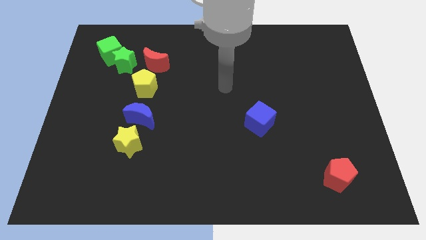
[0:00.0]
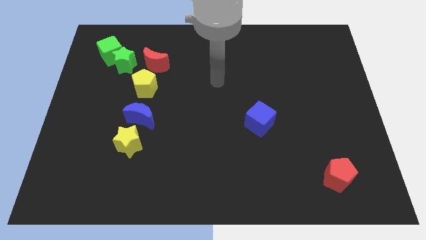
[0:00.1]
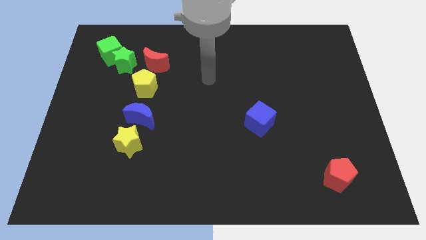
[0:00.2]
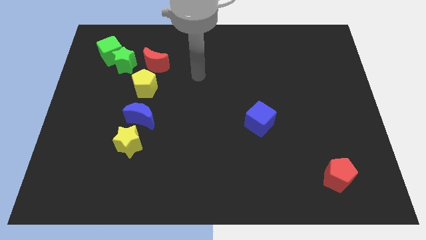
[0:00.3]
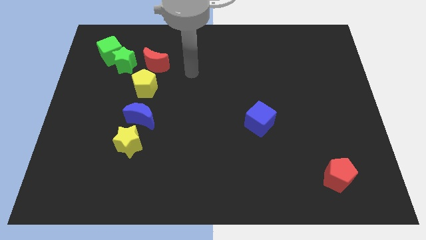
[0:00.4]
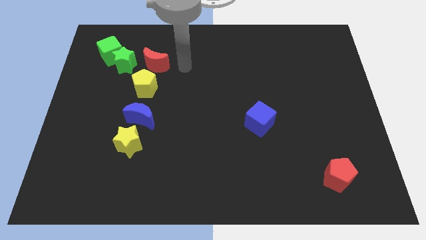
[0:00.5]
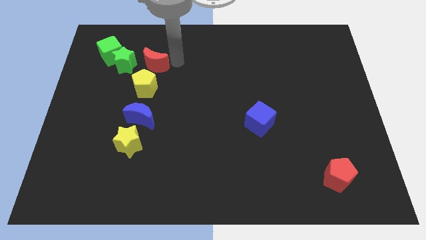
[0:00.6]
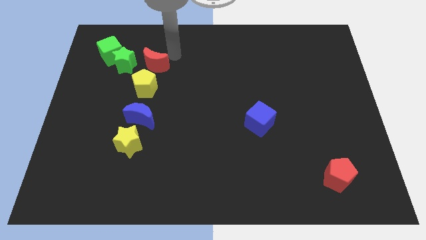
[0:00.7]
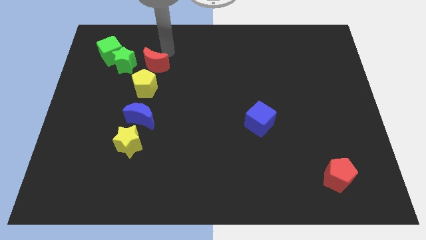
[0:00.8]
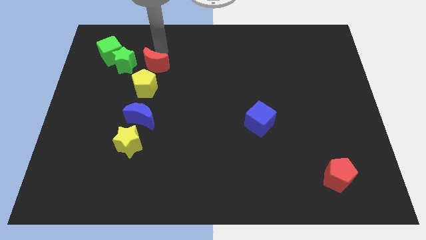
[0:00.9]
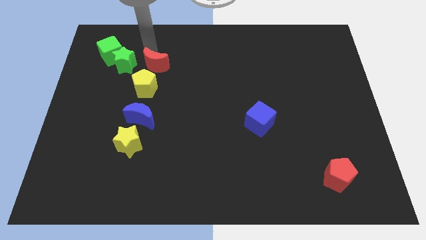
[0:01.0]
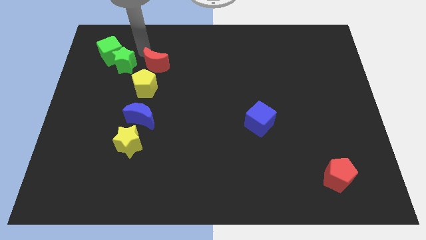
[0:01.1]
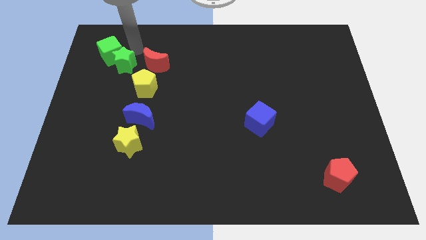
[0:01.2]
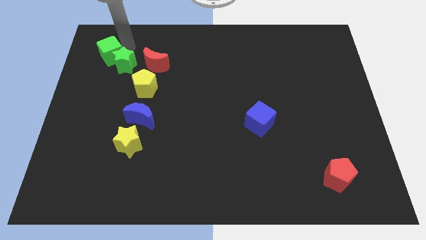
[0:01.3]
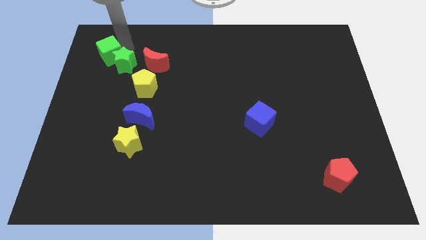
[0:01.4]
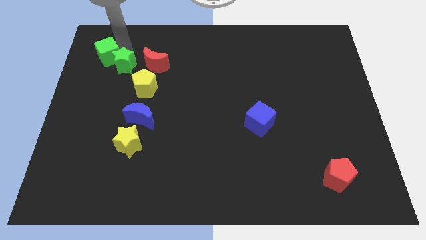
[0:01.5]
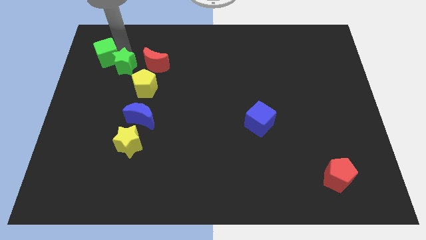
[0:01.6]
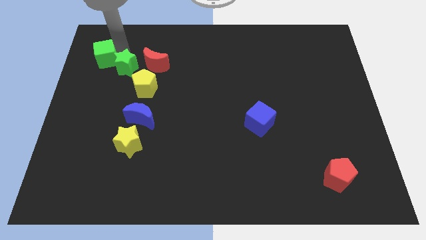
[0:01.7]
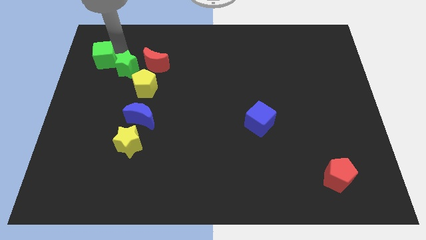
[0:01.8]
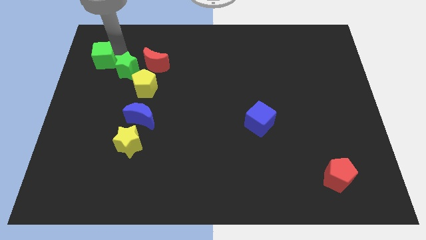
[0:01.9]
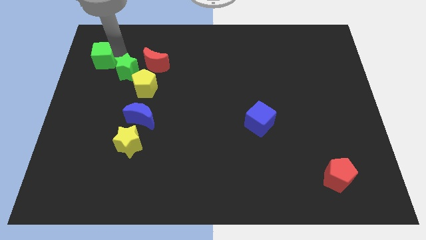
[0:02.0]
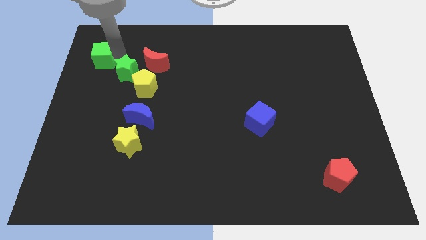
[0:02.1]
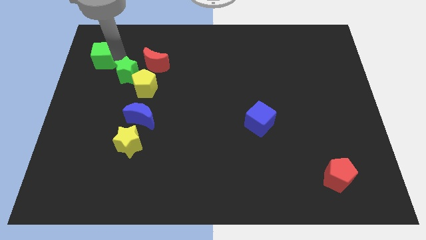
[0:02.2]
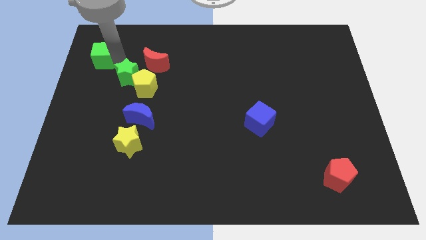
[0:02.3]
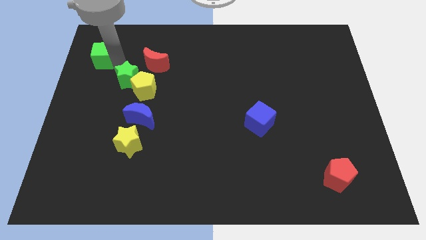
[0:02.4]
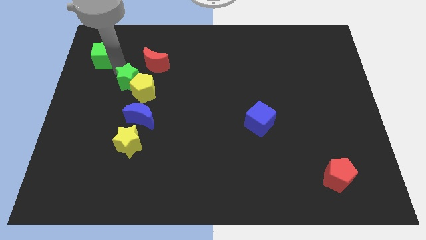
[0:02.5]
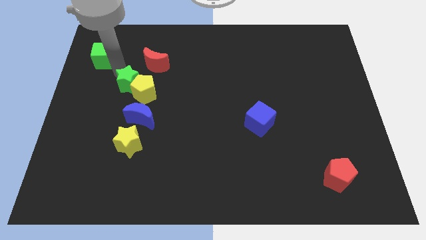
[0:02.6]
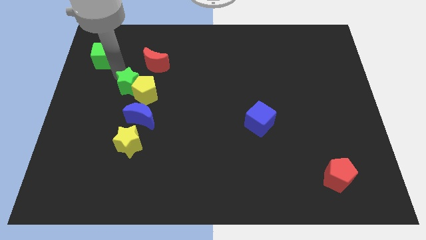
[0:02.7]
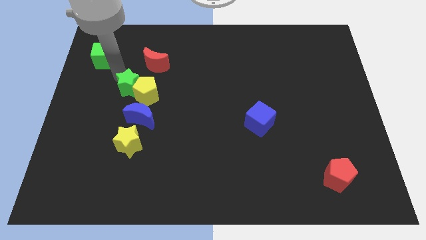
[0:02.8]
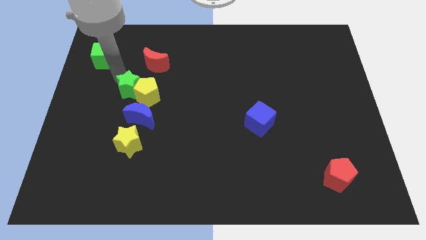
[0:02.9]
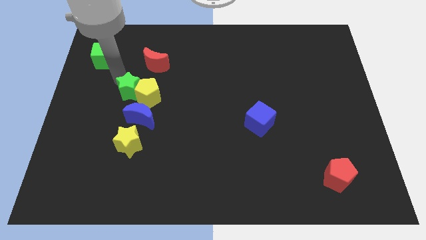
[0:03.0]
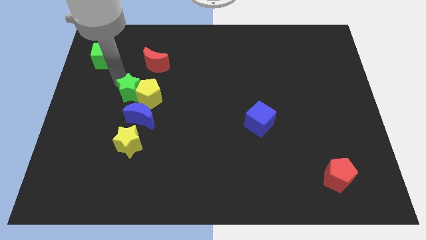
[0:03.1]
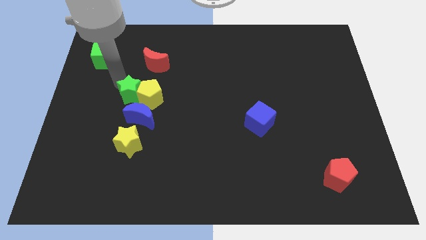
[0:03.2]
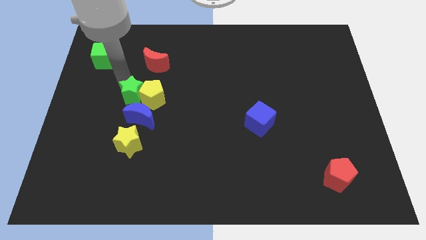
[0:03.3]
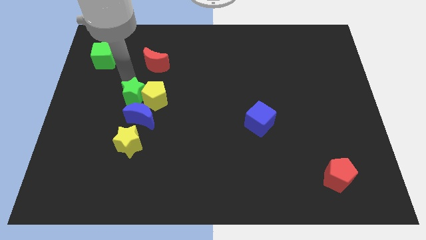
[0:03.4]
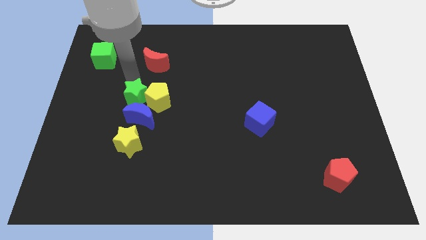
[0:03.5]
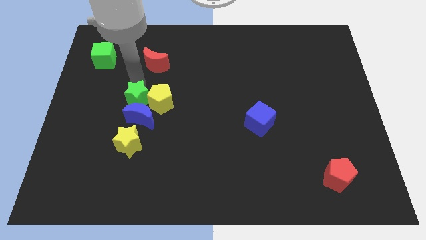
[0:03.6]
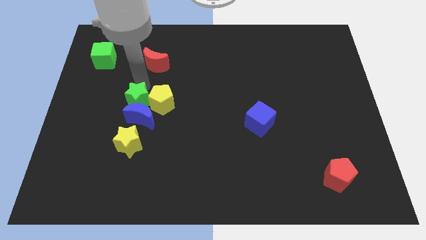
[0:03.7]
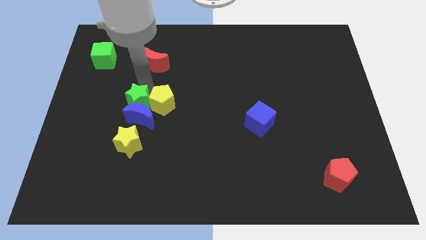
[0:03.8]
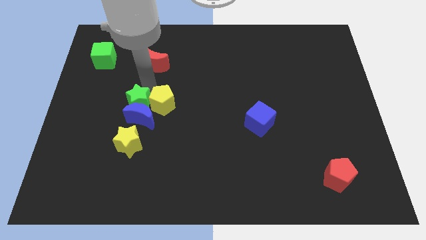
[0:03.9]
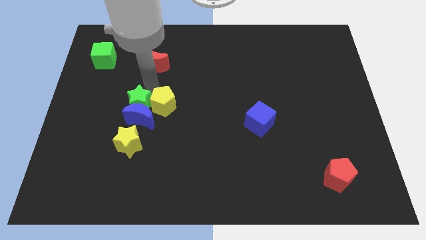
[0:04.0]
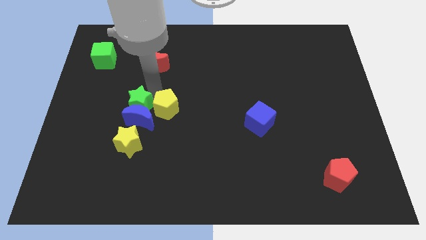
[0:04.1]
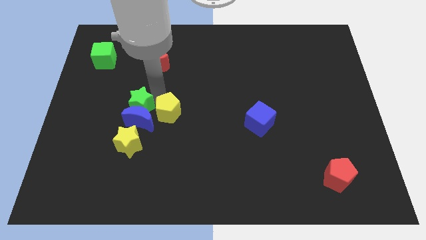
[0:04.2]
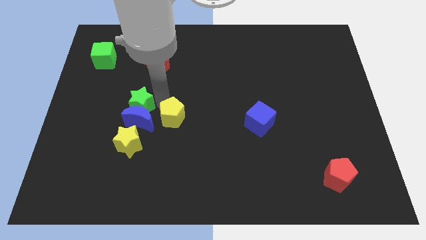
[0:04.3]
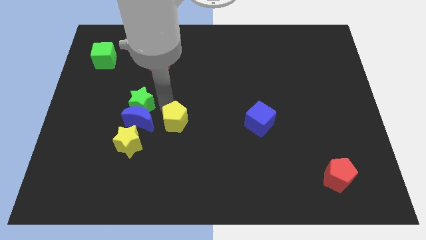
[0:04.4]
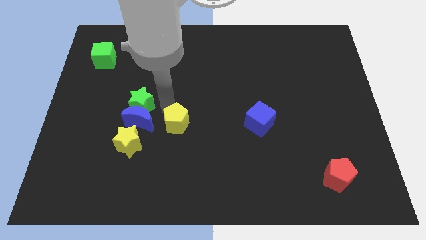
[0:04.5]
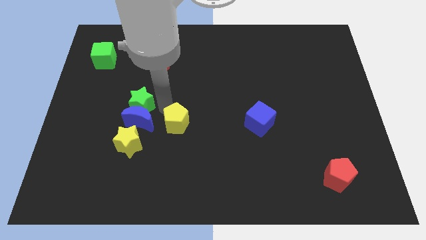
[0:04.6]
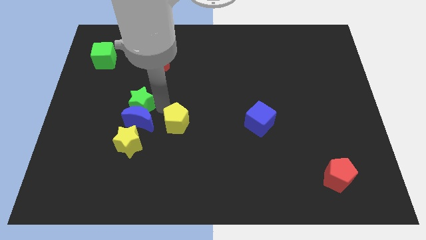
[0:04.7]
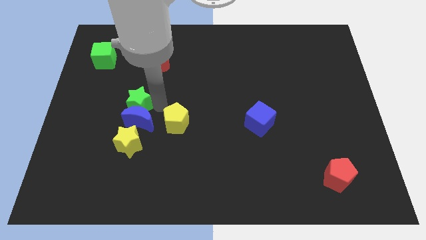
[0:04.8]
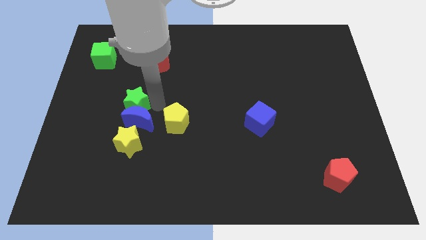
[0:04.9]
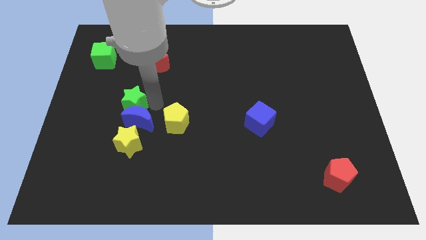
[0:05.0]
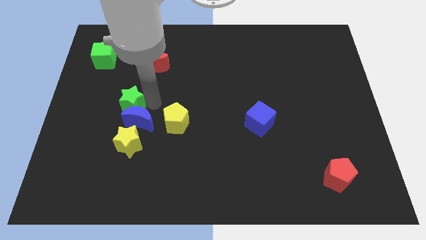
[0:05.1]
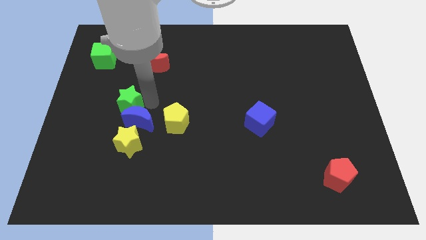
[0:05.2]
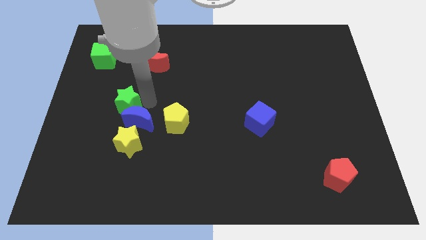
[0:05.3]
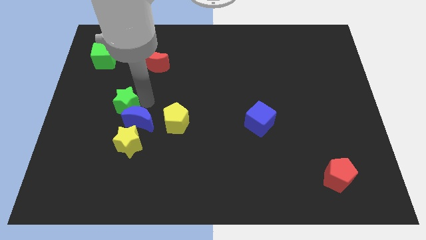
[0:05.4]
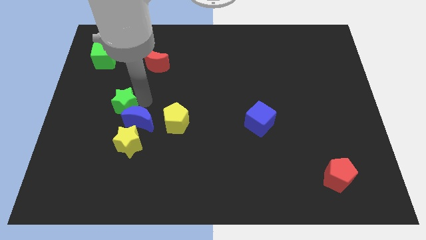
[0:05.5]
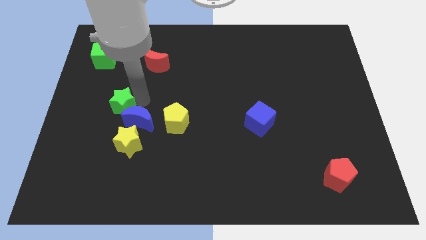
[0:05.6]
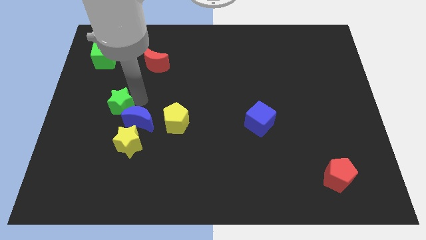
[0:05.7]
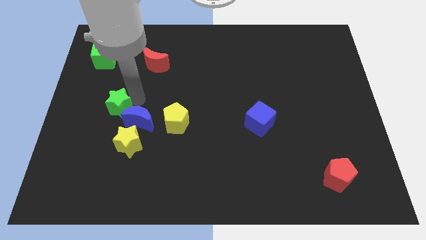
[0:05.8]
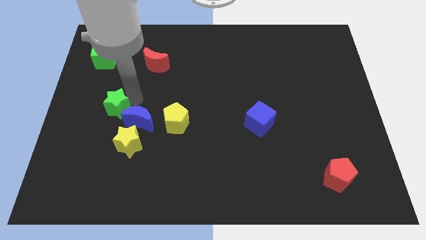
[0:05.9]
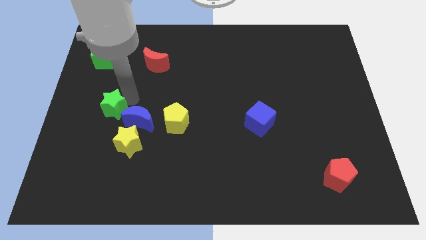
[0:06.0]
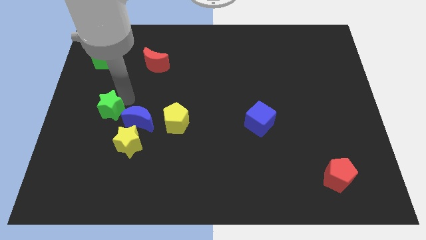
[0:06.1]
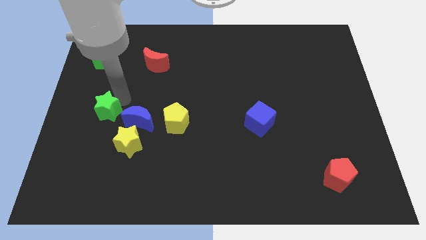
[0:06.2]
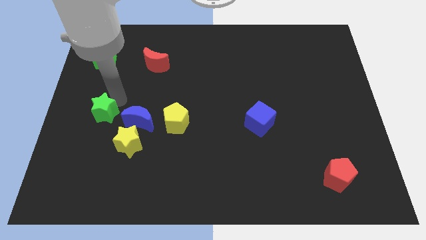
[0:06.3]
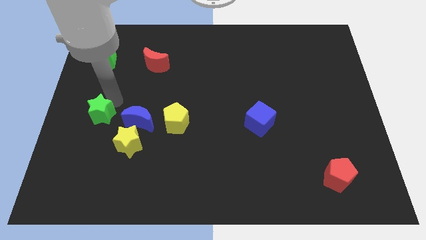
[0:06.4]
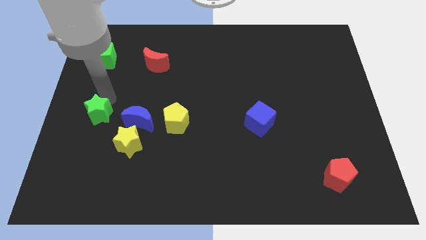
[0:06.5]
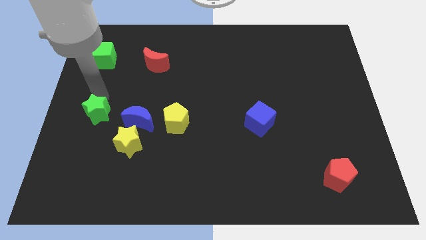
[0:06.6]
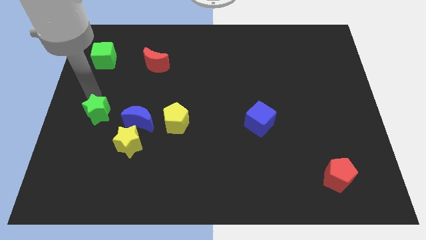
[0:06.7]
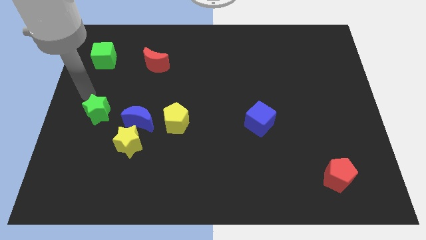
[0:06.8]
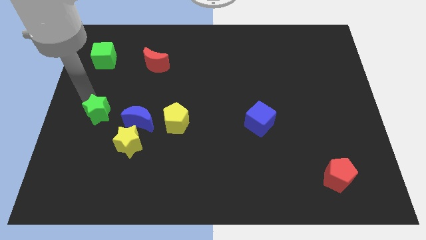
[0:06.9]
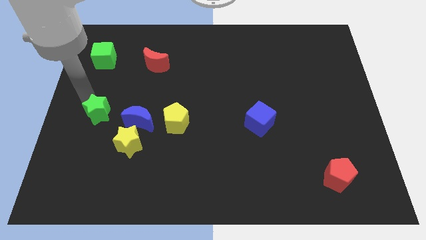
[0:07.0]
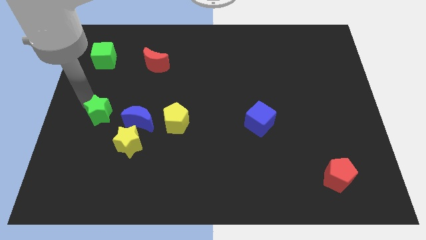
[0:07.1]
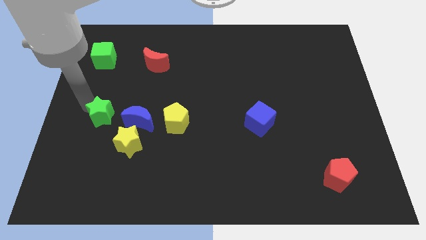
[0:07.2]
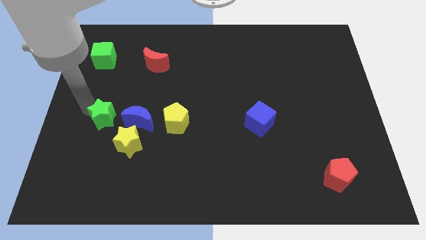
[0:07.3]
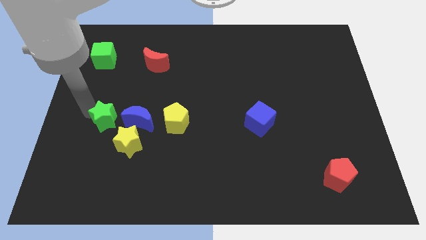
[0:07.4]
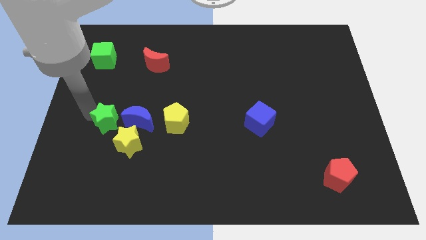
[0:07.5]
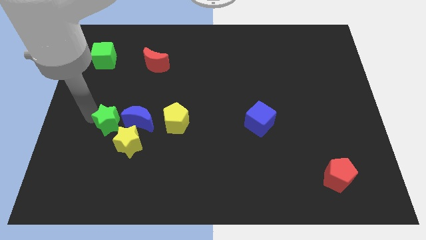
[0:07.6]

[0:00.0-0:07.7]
put the green star to the bottom left of the blue moon

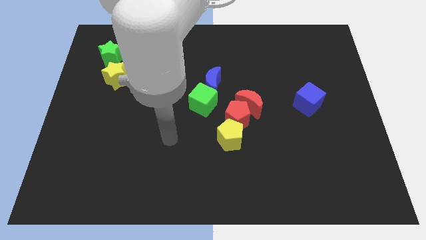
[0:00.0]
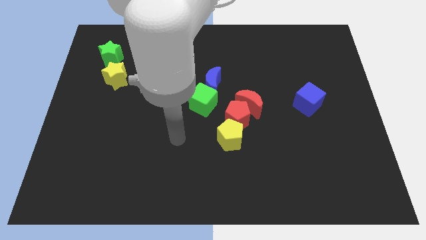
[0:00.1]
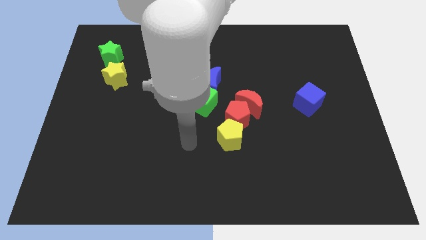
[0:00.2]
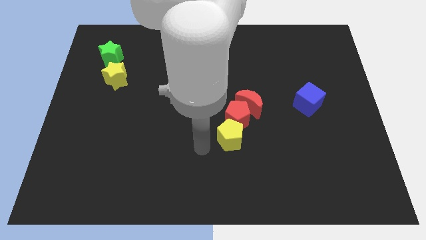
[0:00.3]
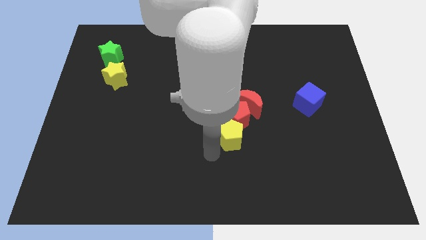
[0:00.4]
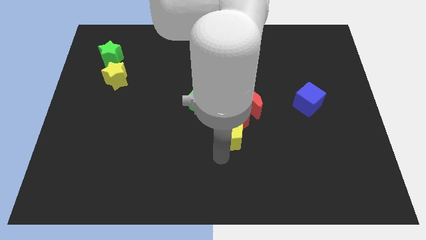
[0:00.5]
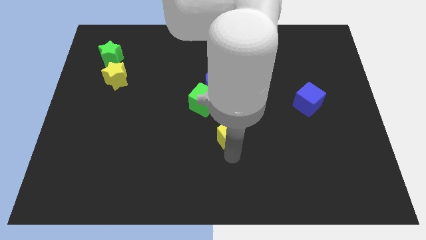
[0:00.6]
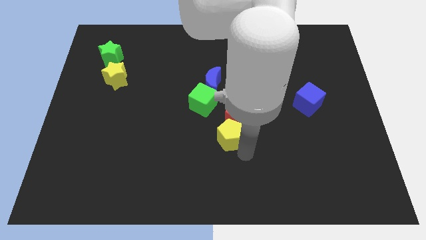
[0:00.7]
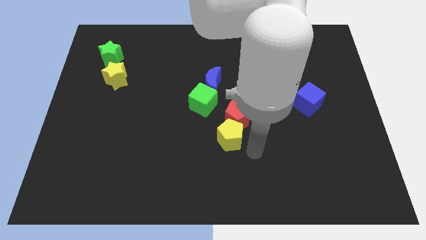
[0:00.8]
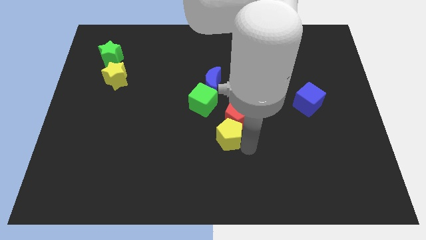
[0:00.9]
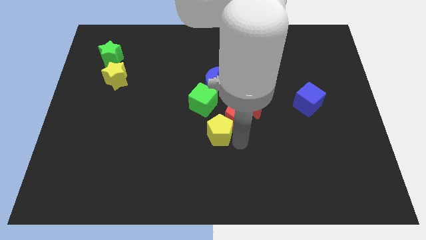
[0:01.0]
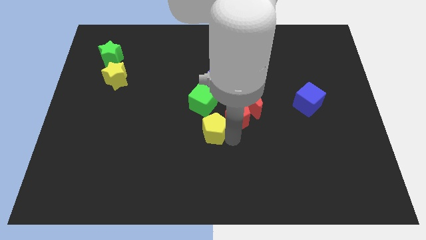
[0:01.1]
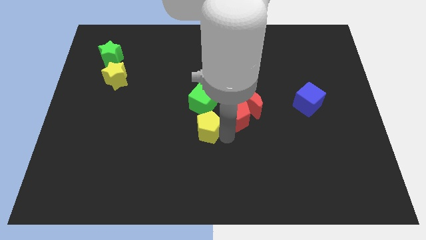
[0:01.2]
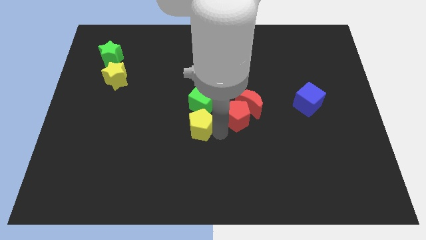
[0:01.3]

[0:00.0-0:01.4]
slide the yellow pentagon to the bottom left of the green cube
